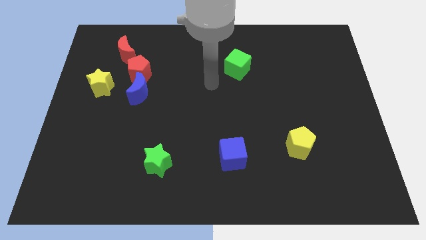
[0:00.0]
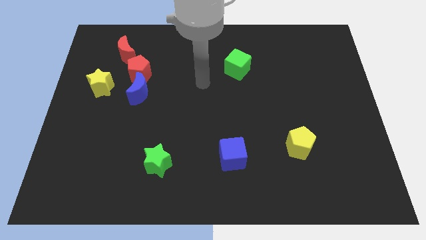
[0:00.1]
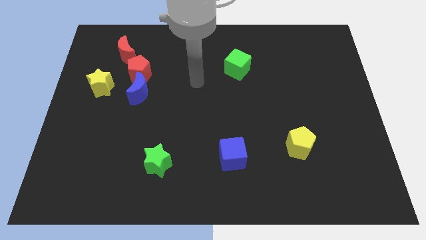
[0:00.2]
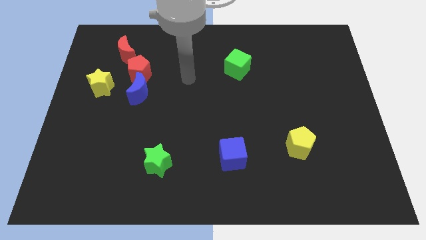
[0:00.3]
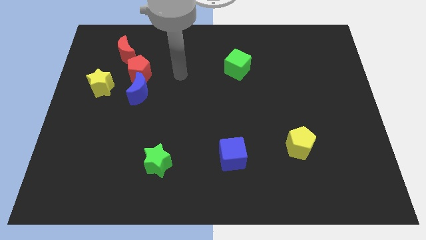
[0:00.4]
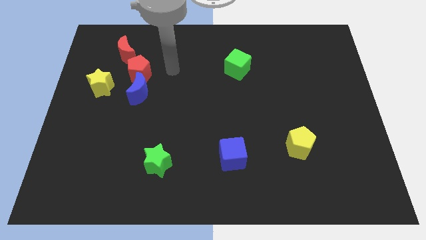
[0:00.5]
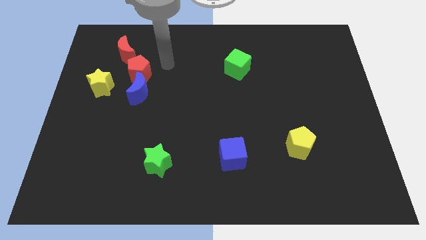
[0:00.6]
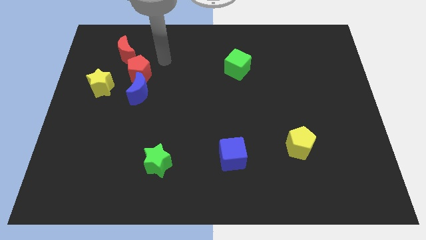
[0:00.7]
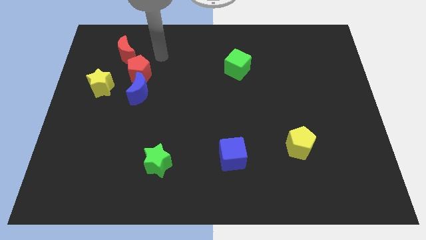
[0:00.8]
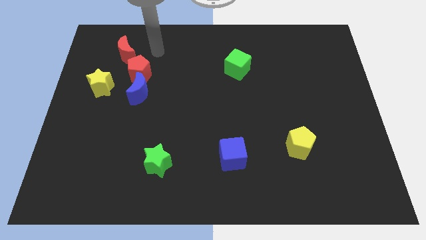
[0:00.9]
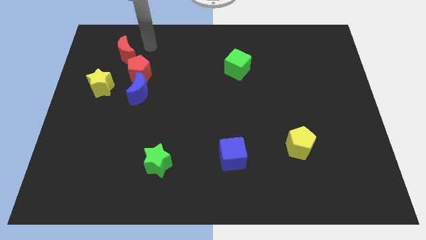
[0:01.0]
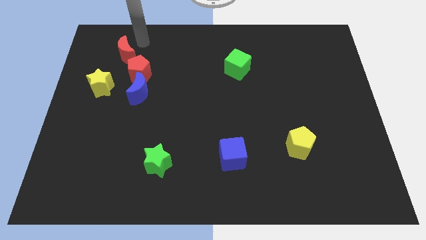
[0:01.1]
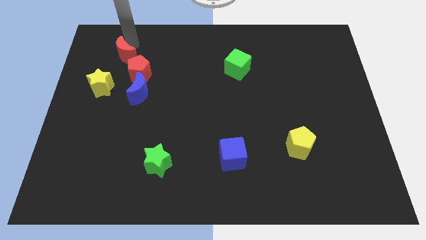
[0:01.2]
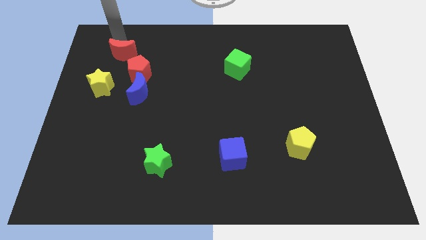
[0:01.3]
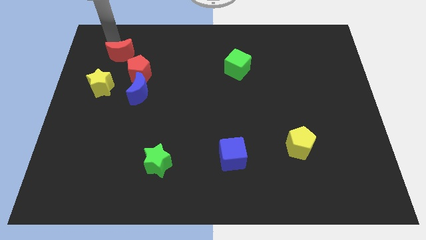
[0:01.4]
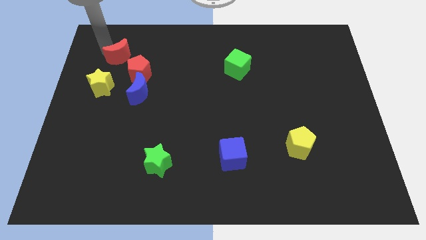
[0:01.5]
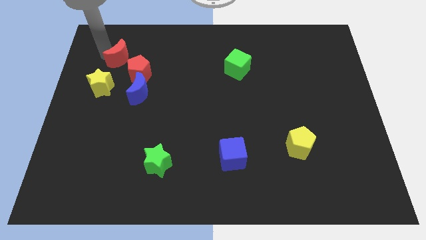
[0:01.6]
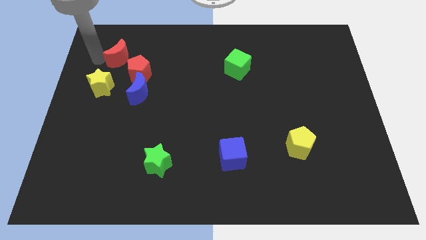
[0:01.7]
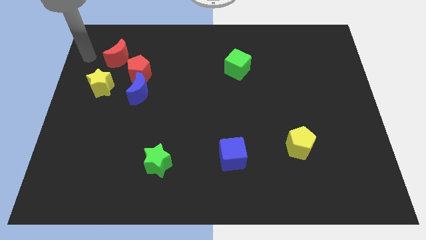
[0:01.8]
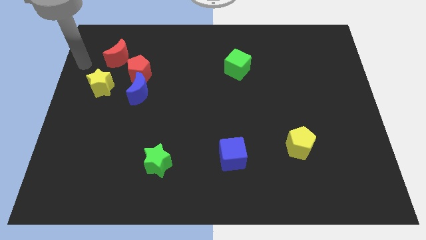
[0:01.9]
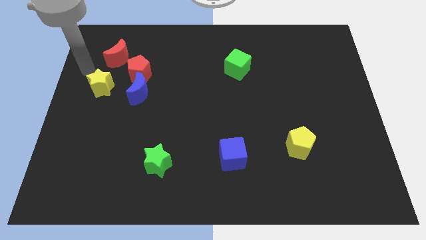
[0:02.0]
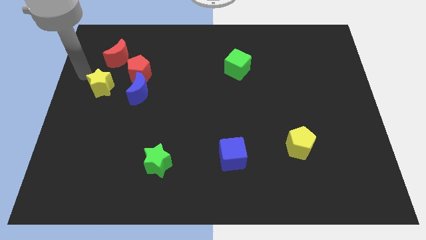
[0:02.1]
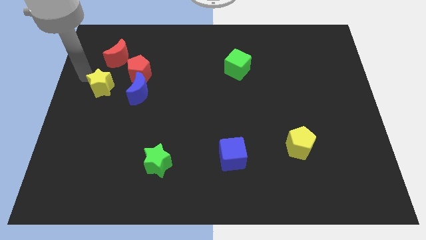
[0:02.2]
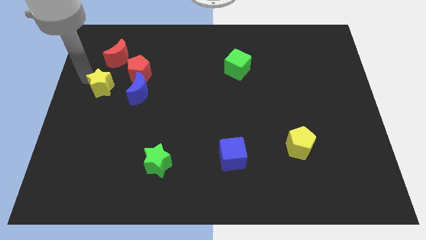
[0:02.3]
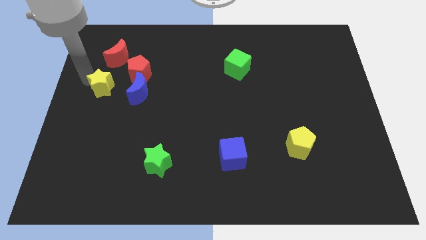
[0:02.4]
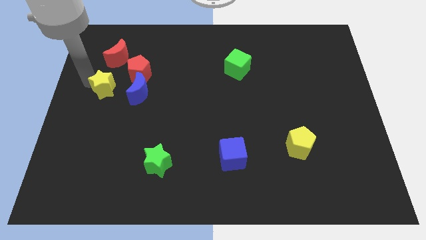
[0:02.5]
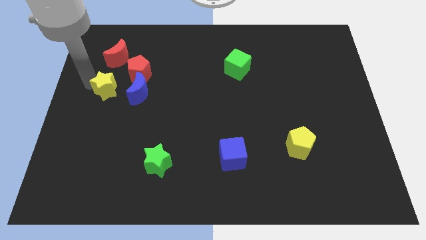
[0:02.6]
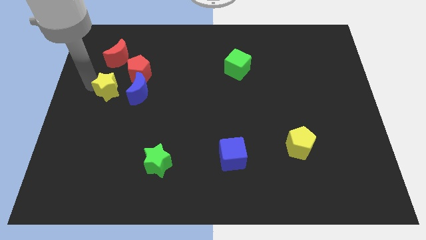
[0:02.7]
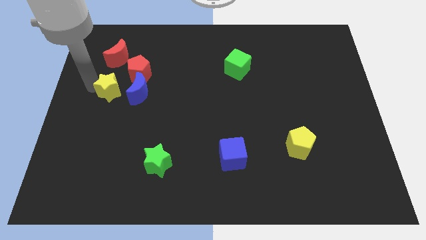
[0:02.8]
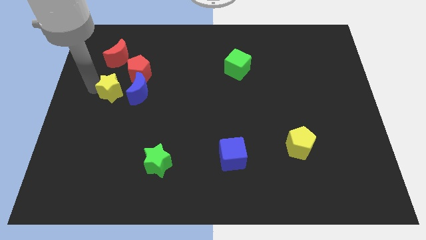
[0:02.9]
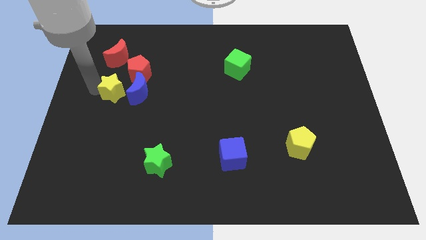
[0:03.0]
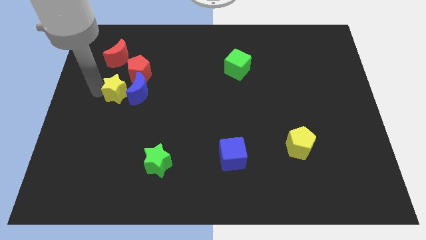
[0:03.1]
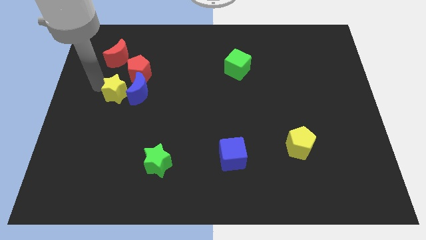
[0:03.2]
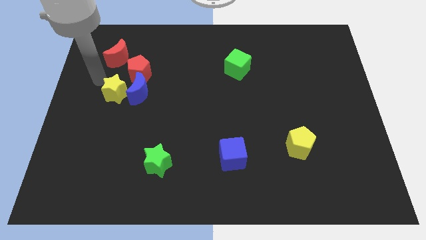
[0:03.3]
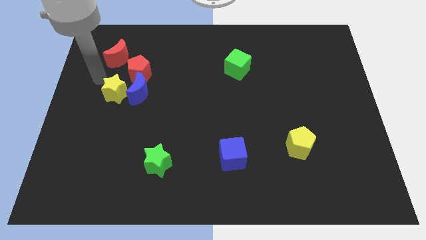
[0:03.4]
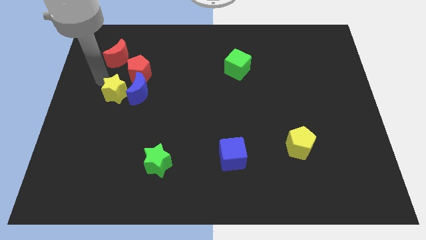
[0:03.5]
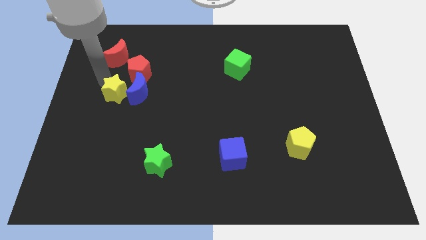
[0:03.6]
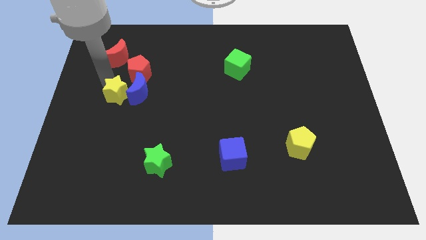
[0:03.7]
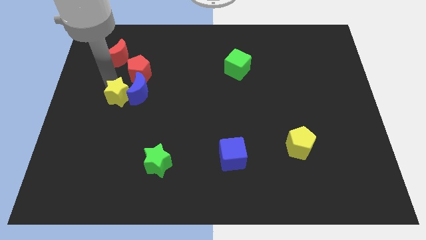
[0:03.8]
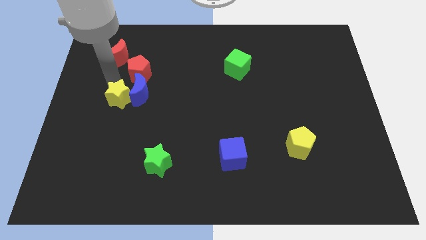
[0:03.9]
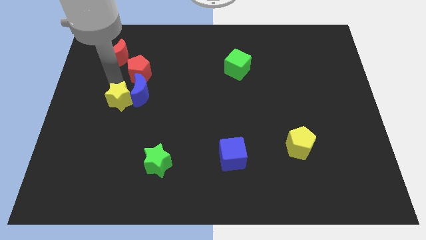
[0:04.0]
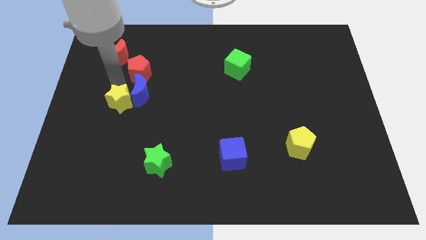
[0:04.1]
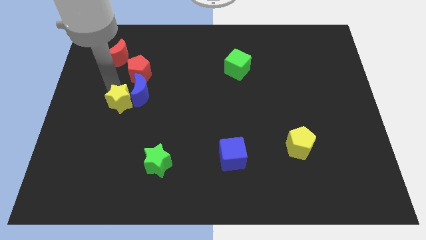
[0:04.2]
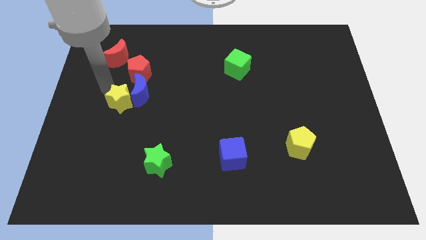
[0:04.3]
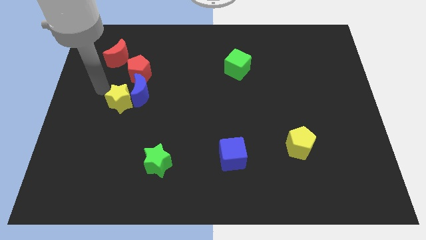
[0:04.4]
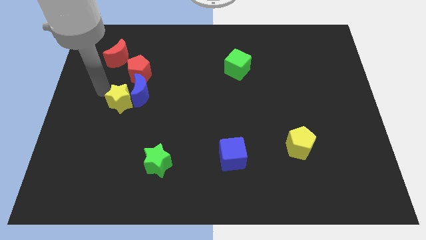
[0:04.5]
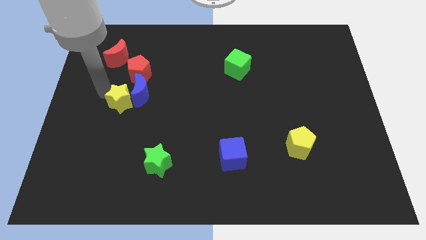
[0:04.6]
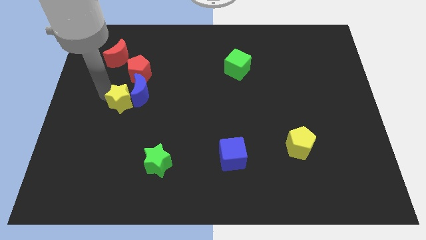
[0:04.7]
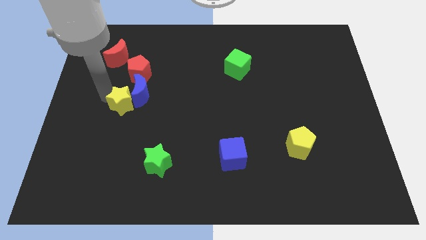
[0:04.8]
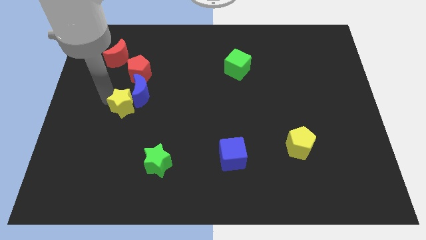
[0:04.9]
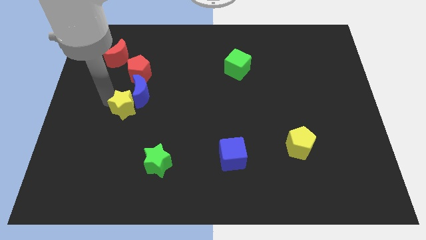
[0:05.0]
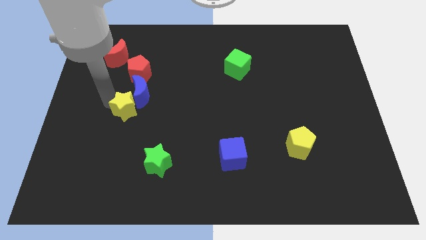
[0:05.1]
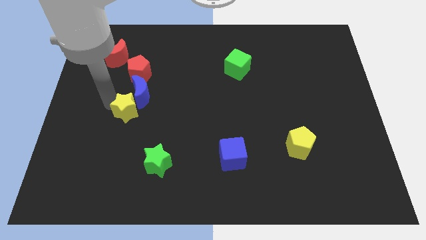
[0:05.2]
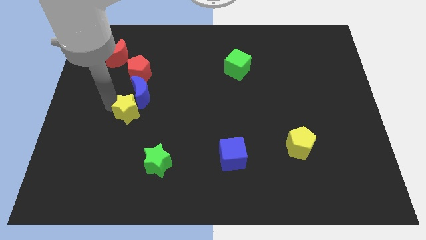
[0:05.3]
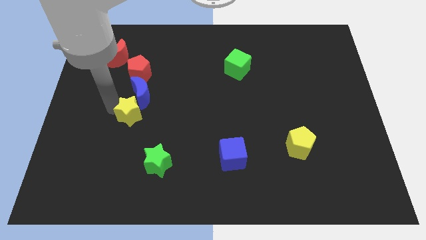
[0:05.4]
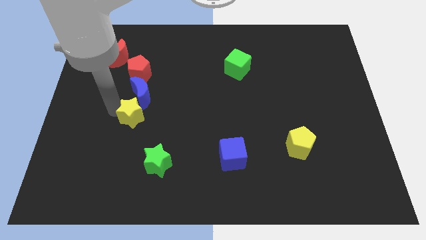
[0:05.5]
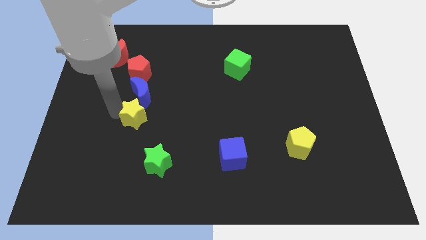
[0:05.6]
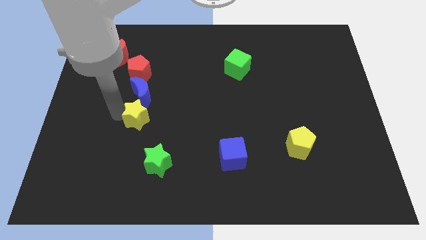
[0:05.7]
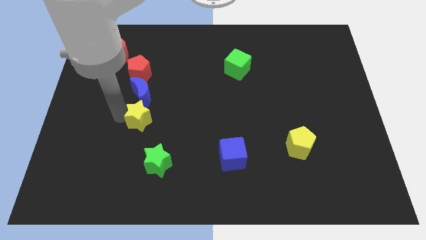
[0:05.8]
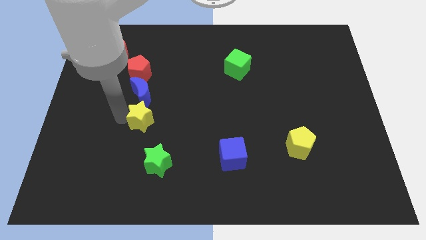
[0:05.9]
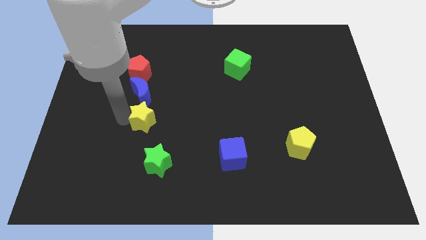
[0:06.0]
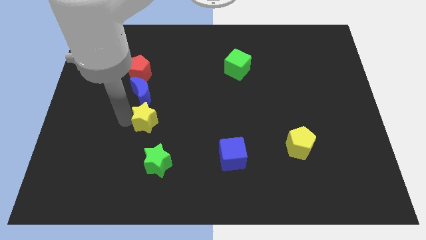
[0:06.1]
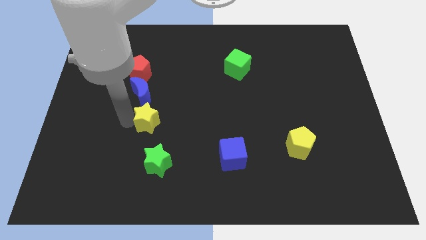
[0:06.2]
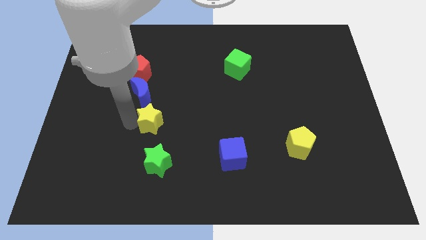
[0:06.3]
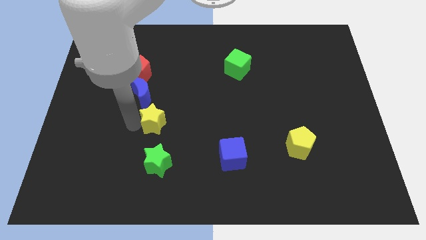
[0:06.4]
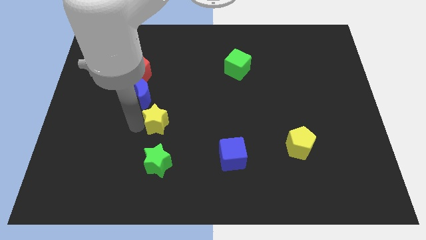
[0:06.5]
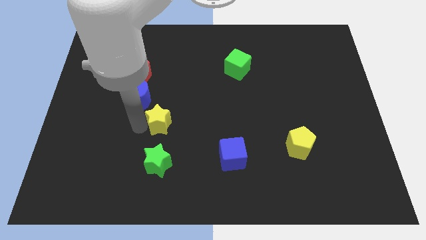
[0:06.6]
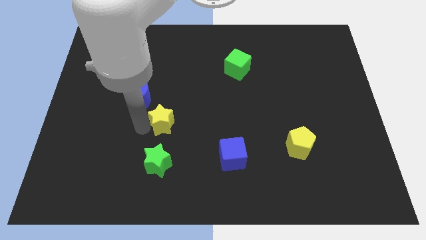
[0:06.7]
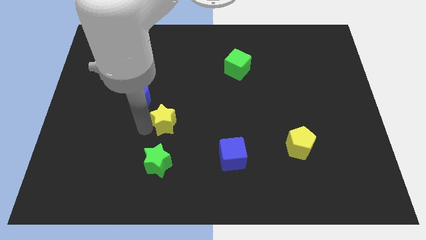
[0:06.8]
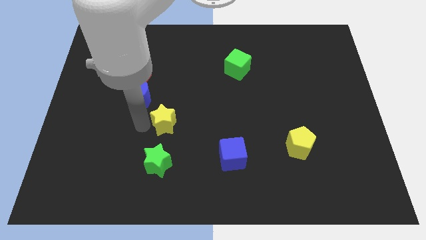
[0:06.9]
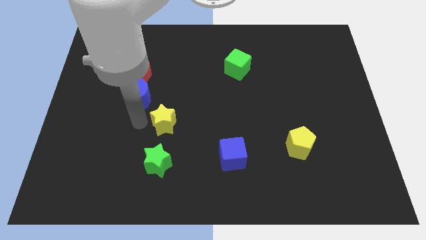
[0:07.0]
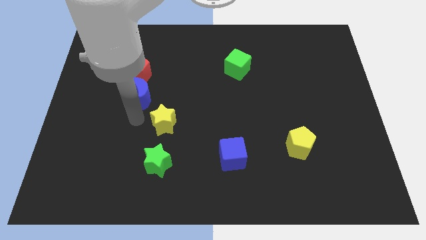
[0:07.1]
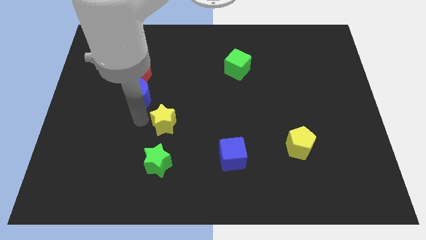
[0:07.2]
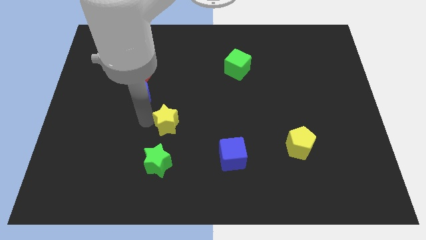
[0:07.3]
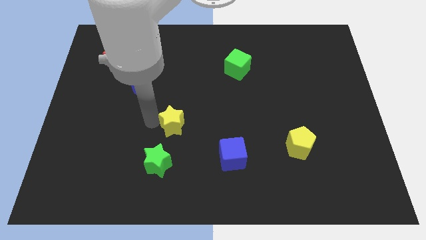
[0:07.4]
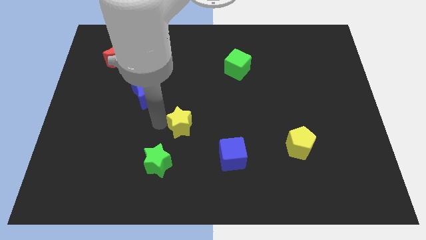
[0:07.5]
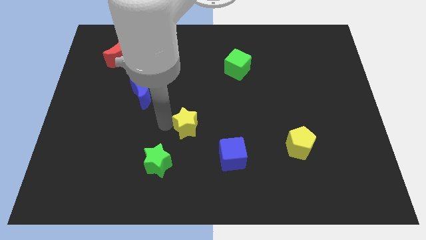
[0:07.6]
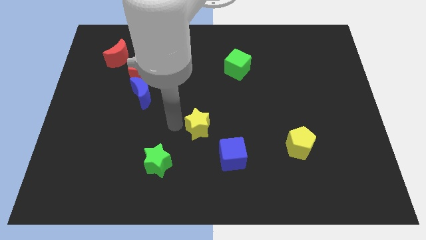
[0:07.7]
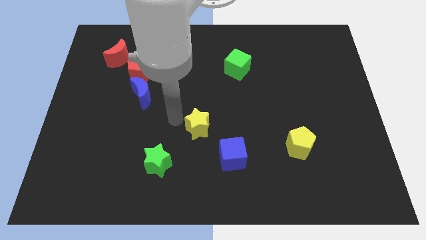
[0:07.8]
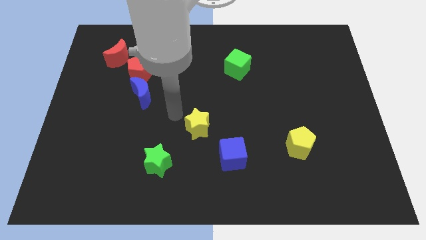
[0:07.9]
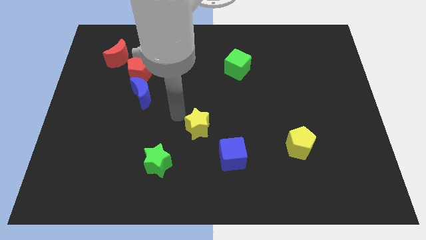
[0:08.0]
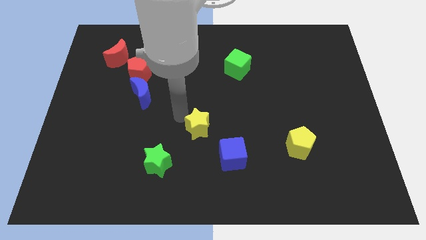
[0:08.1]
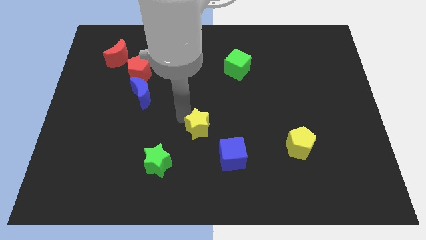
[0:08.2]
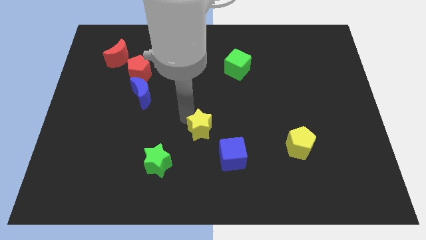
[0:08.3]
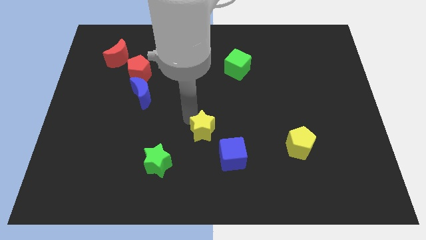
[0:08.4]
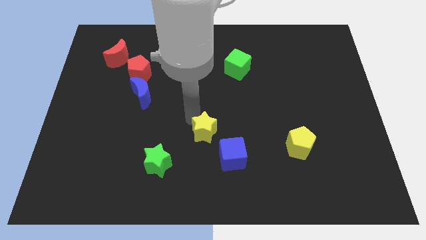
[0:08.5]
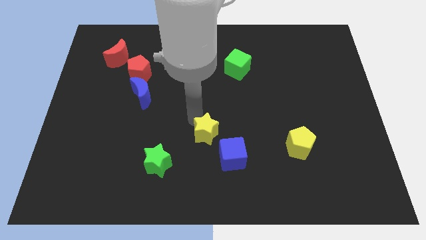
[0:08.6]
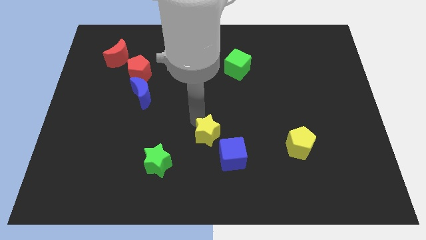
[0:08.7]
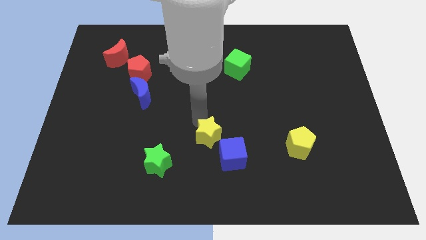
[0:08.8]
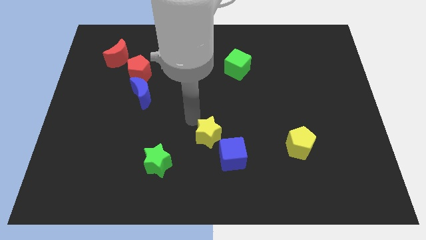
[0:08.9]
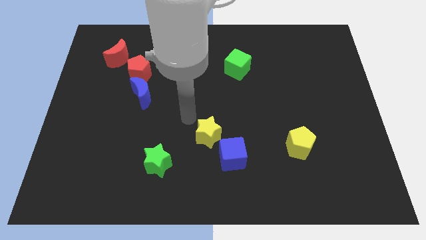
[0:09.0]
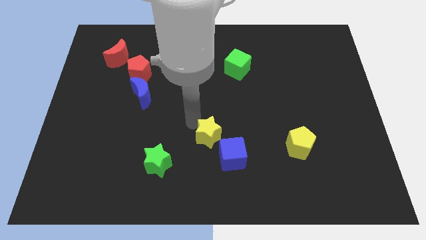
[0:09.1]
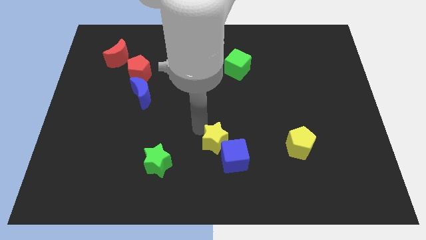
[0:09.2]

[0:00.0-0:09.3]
slide the yellow star to the blue cube
